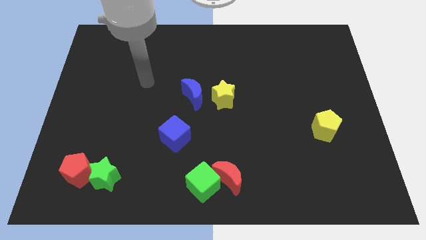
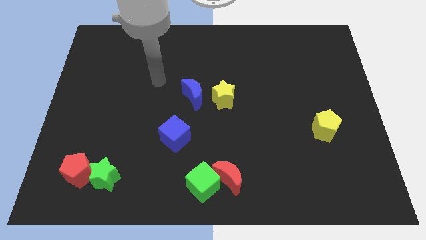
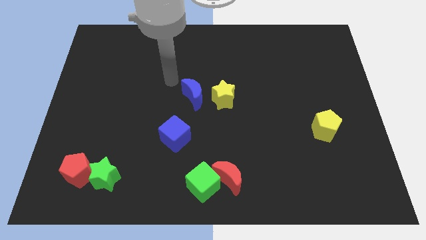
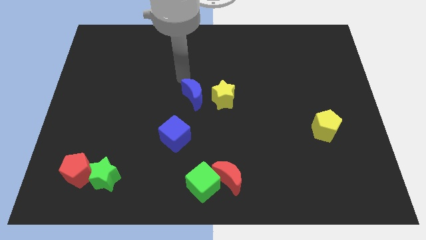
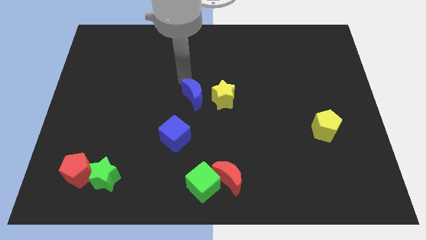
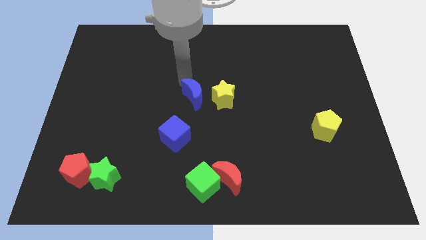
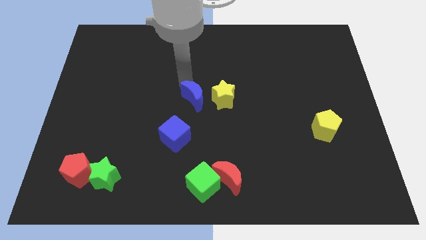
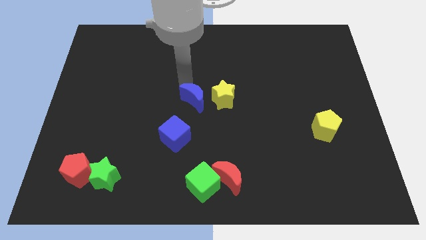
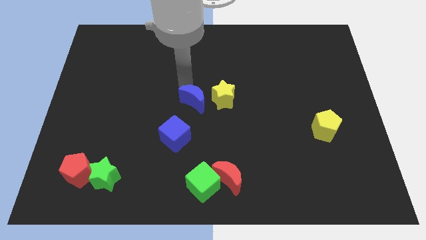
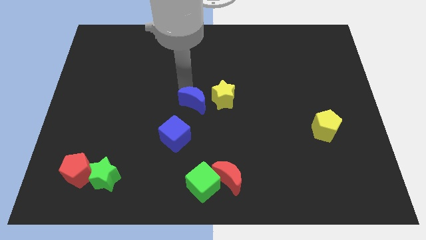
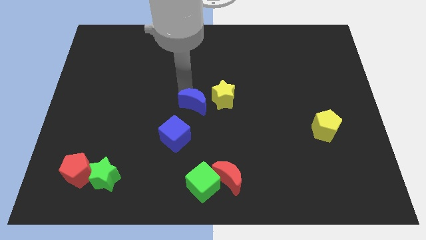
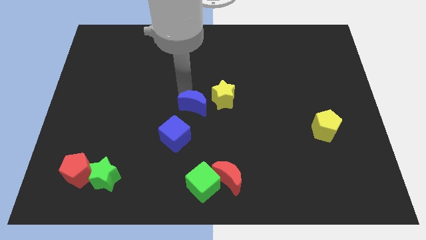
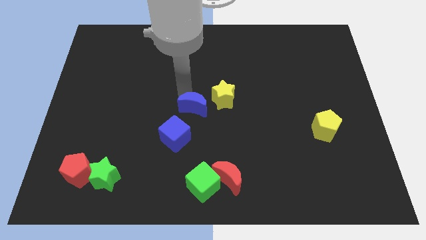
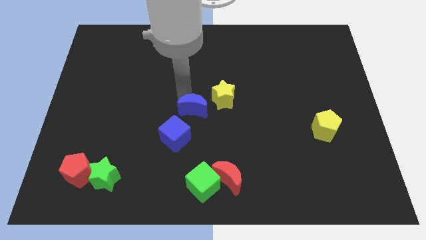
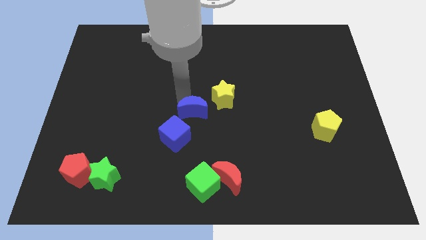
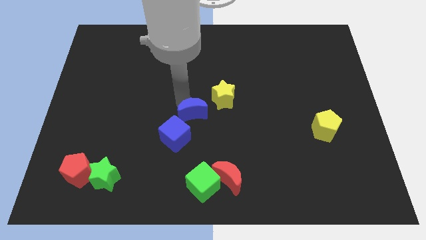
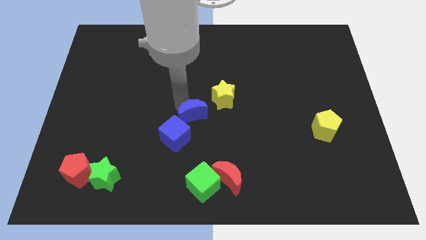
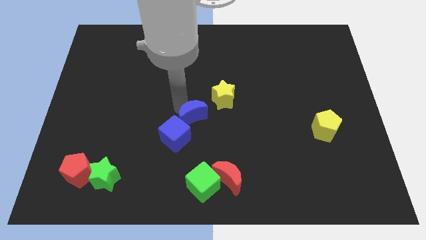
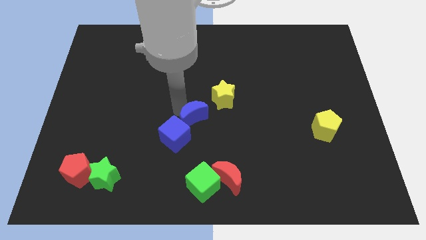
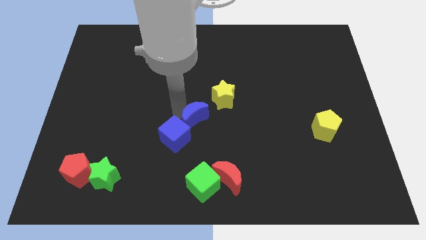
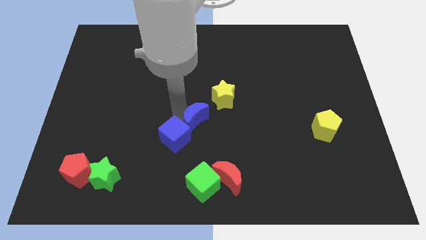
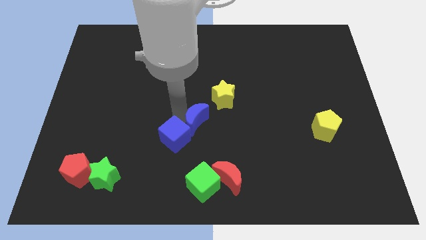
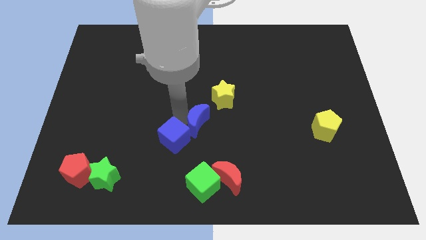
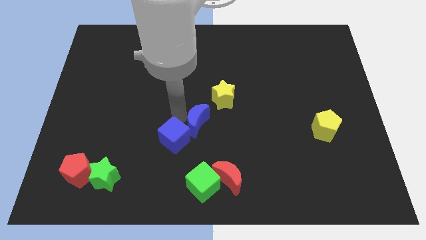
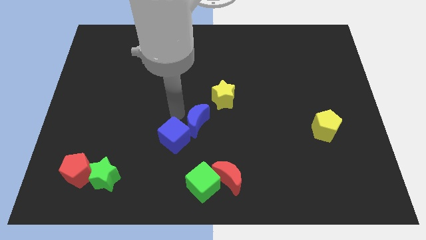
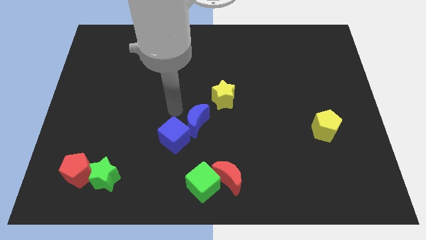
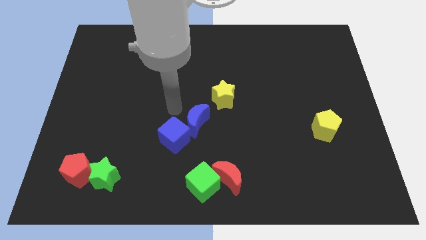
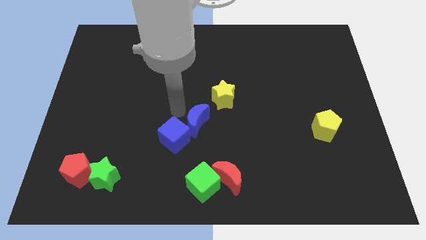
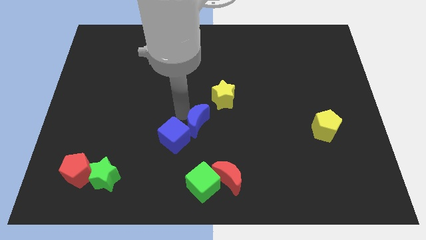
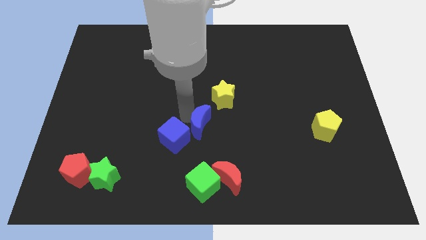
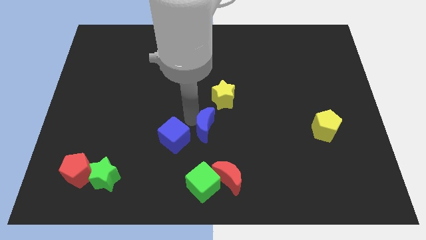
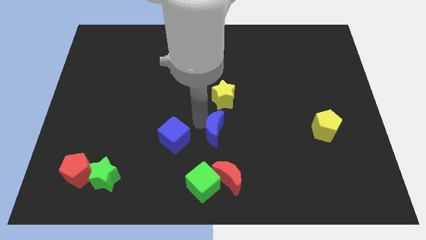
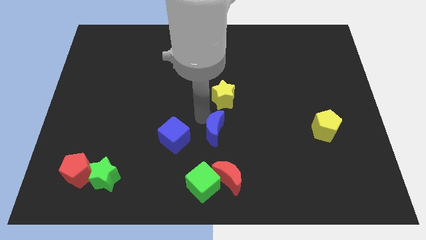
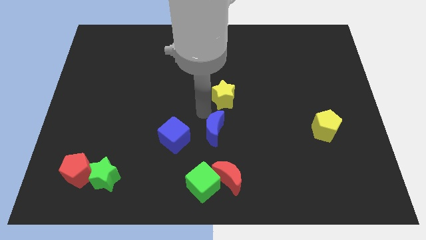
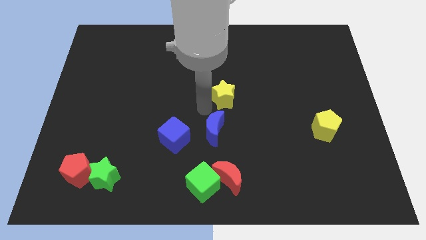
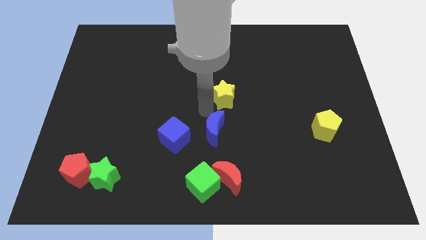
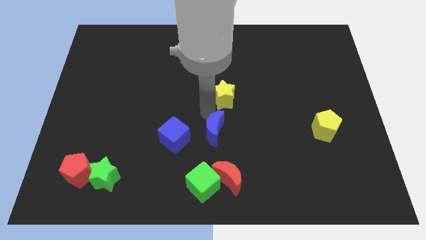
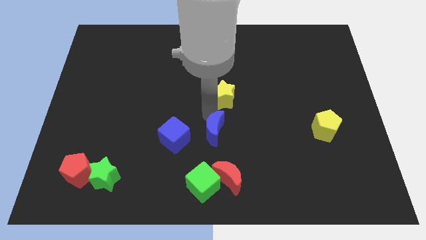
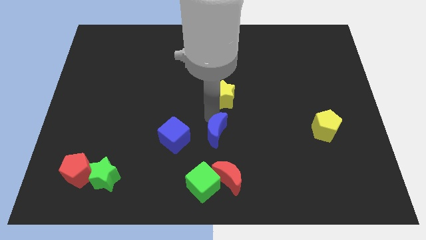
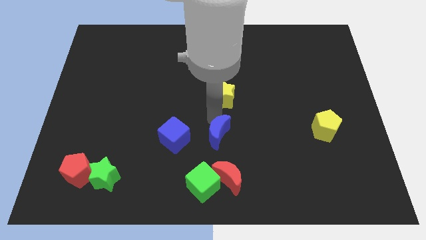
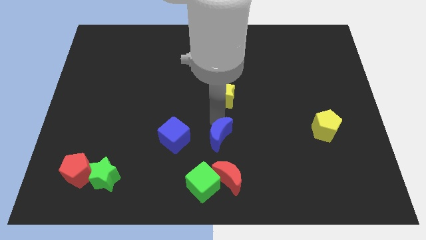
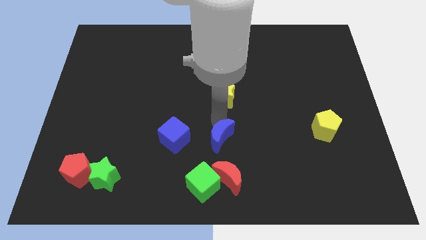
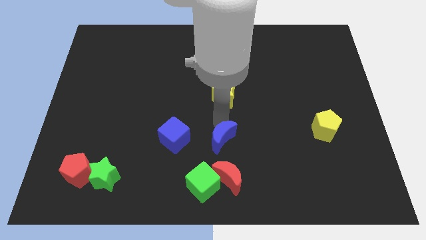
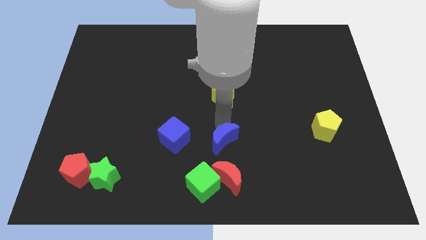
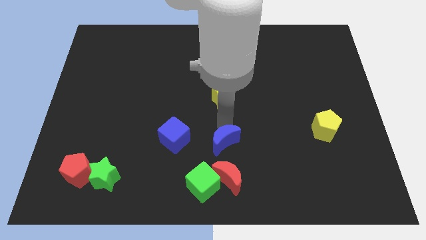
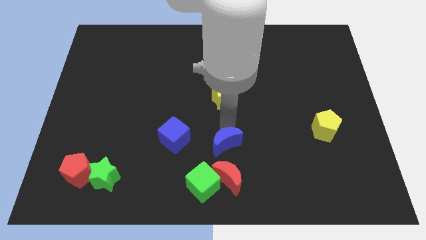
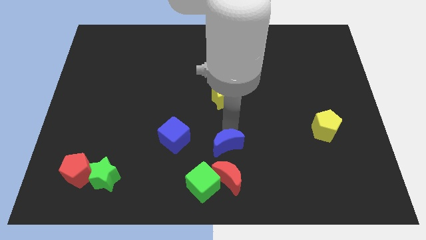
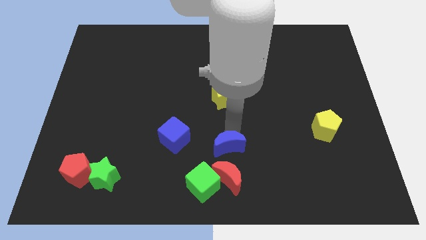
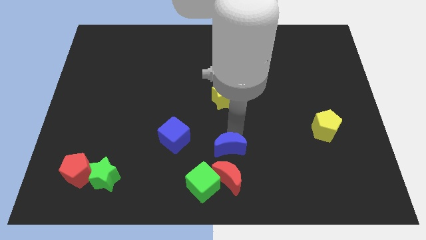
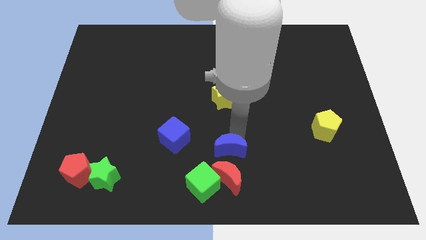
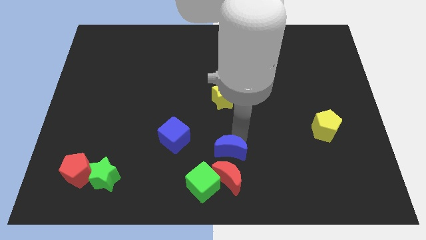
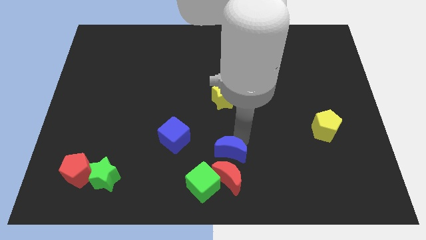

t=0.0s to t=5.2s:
slide the blue moon to the red moon

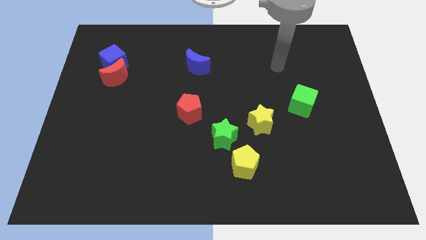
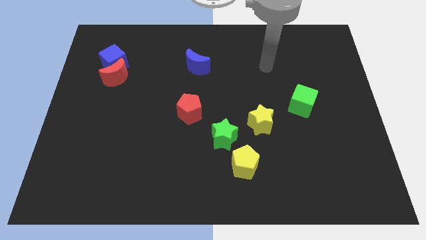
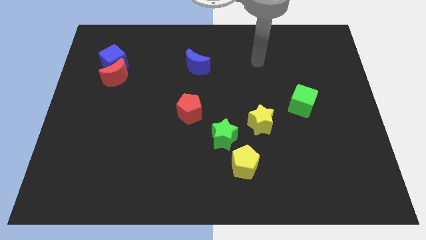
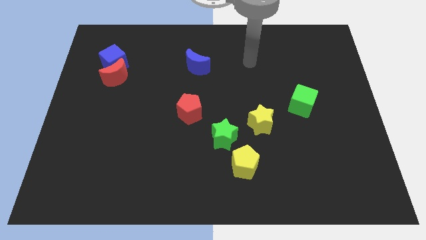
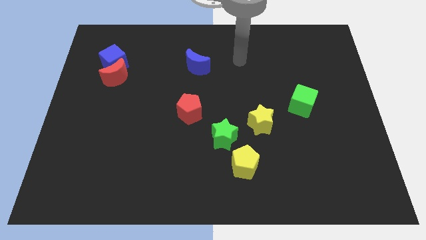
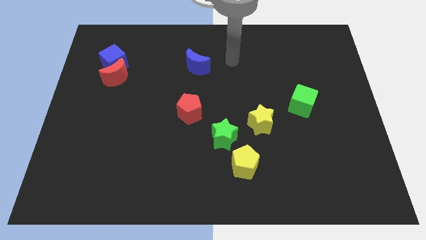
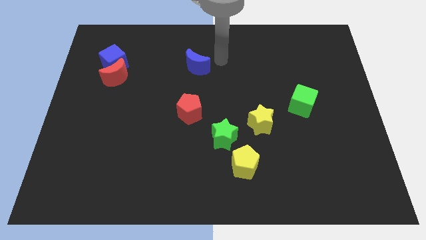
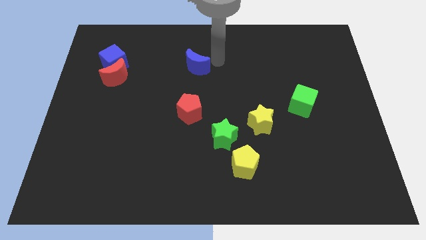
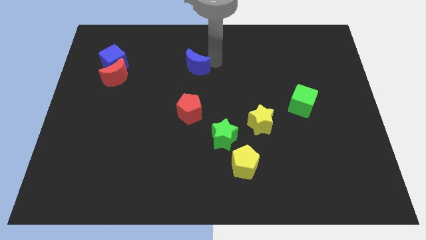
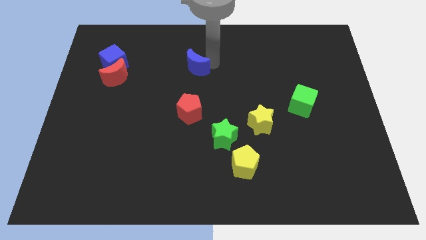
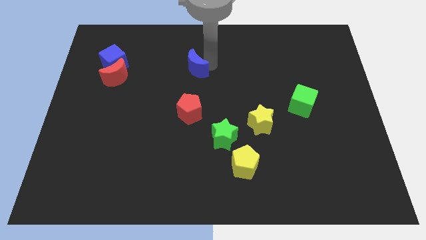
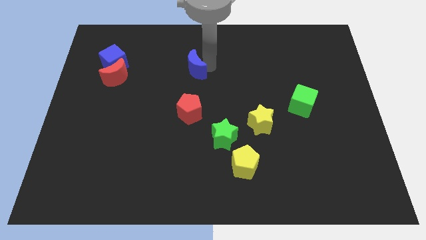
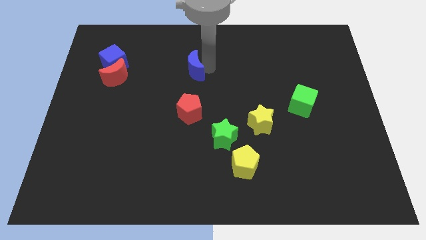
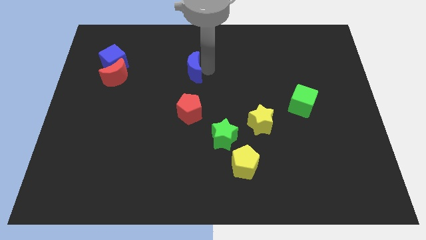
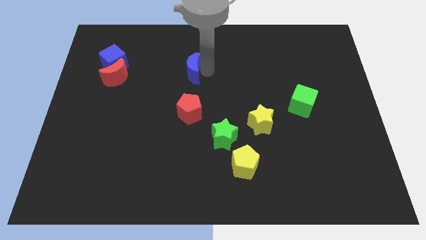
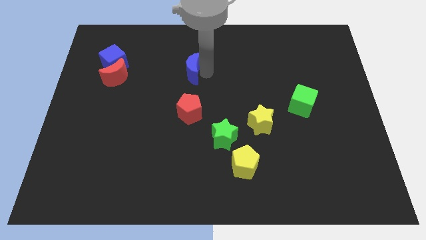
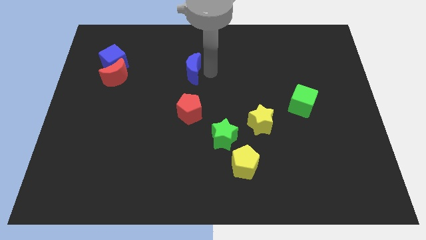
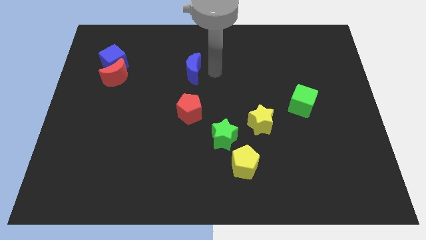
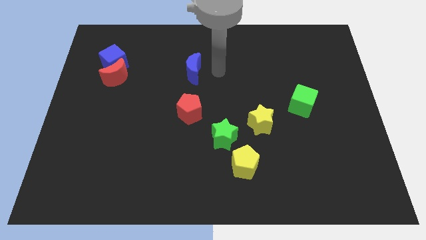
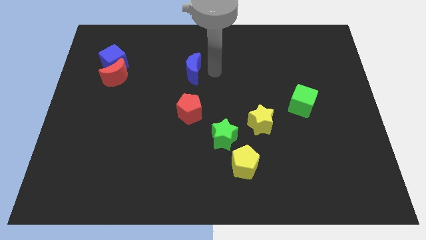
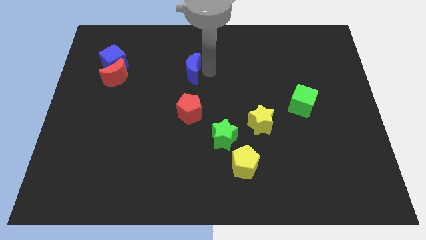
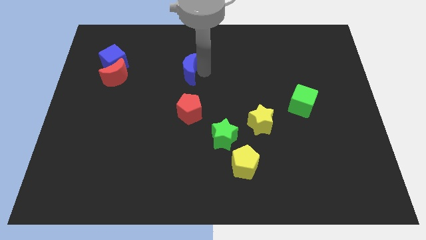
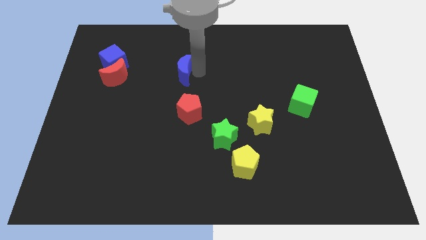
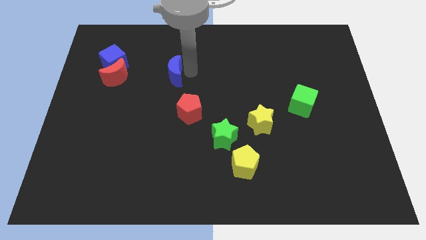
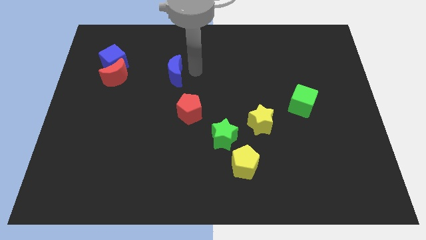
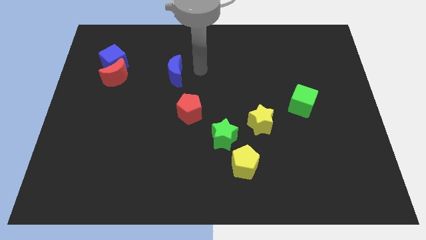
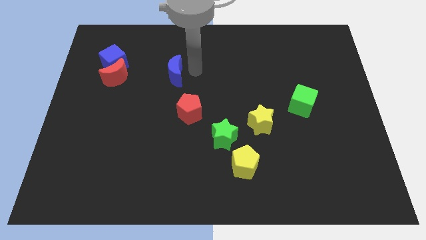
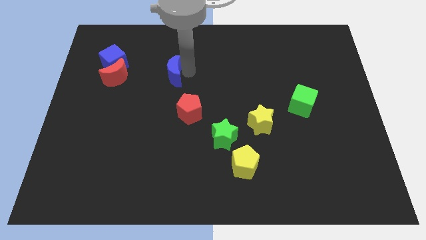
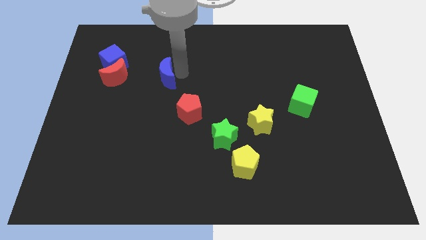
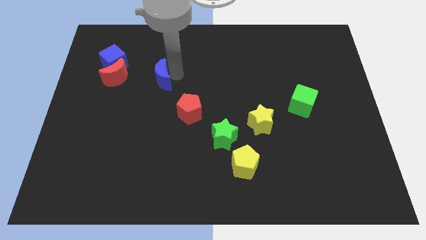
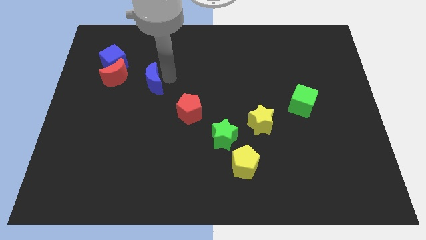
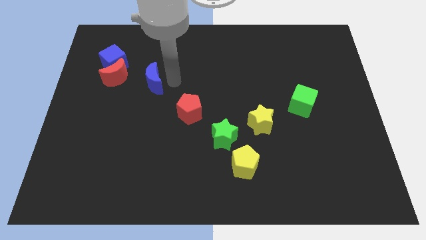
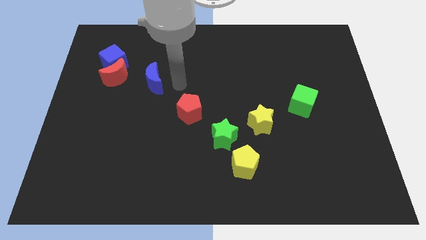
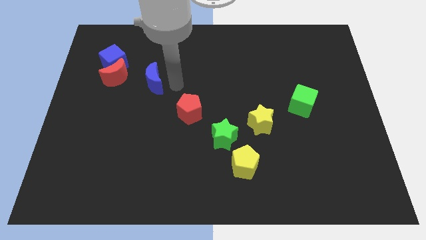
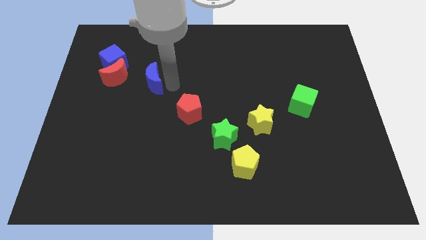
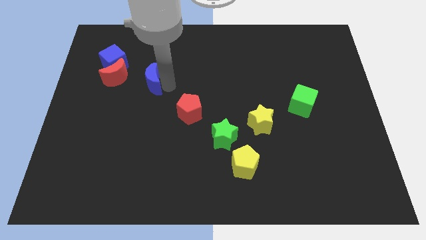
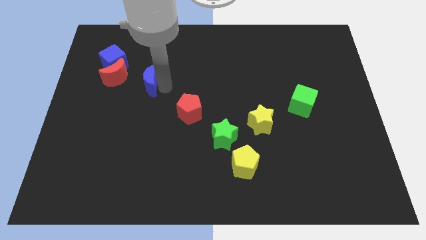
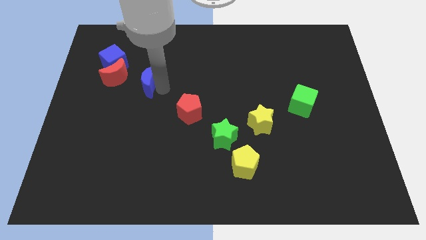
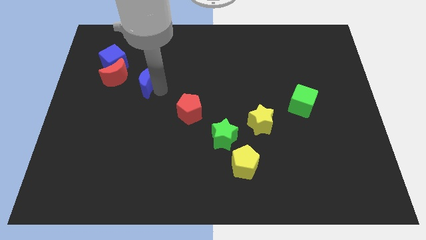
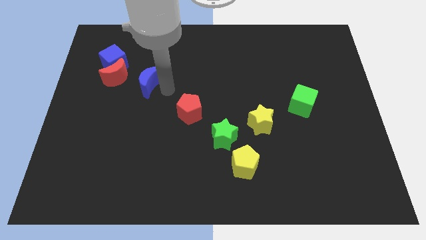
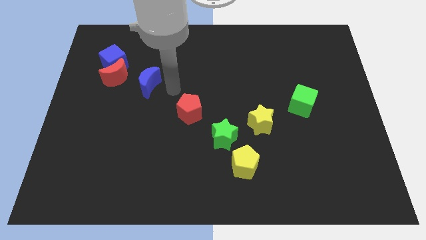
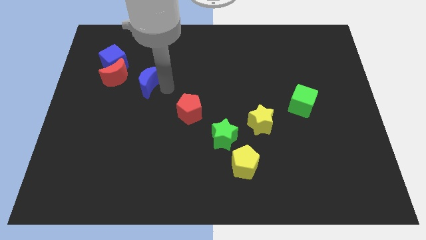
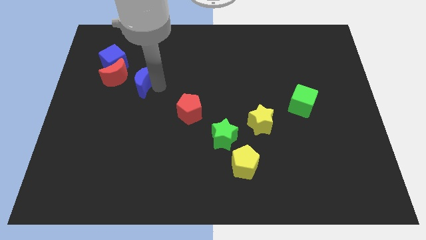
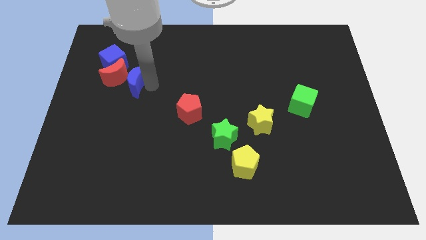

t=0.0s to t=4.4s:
put the blue moon next to the red moon
